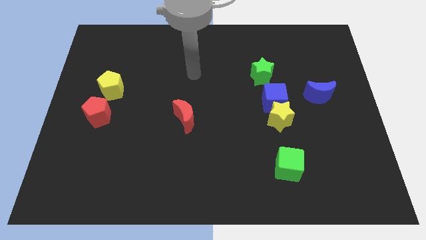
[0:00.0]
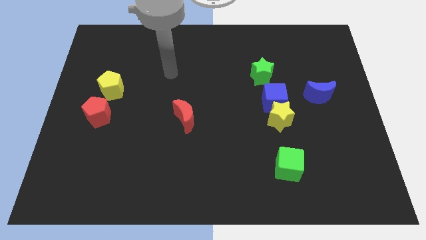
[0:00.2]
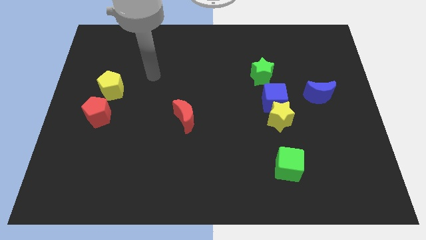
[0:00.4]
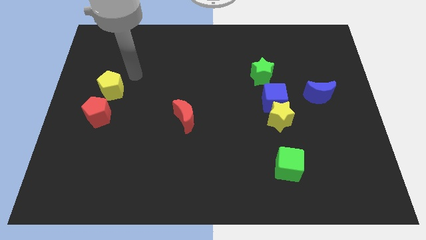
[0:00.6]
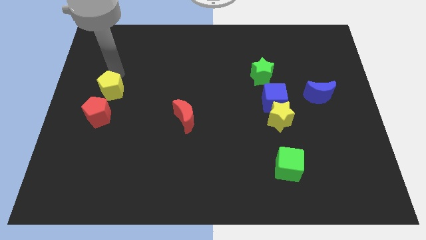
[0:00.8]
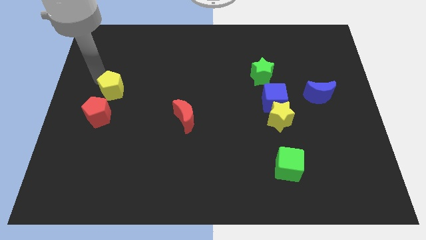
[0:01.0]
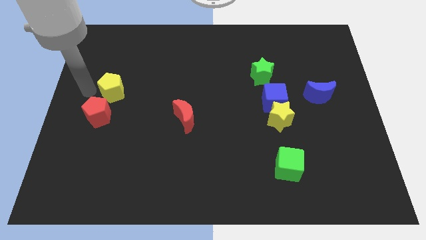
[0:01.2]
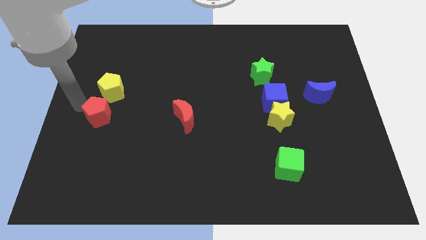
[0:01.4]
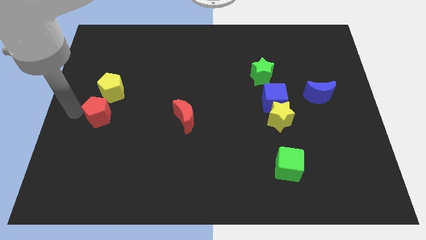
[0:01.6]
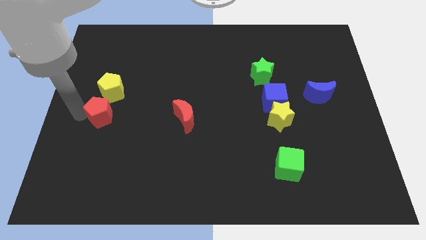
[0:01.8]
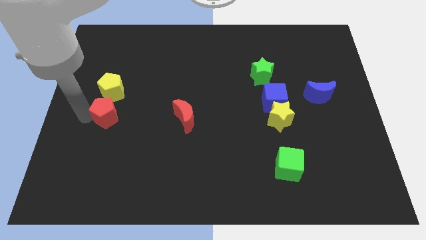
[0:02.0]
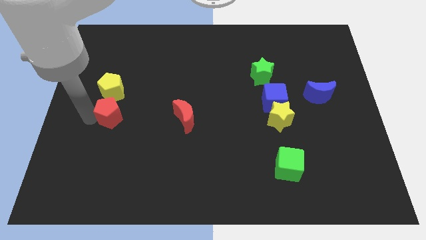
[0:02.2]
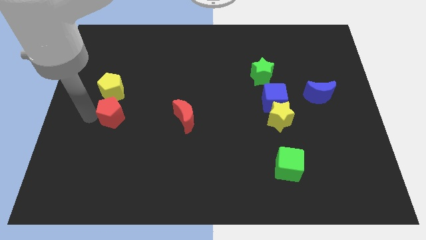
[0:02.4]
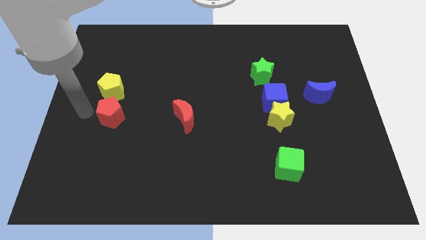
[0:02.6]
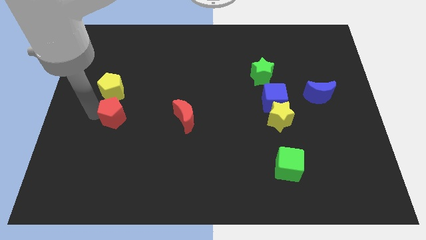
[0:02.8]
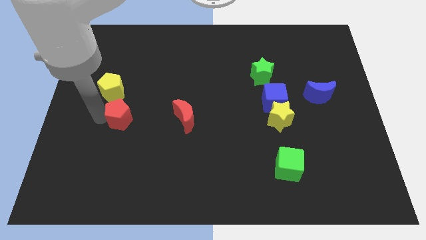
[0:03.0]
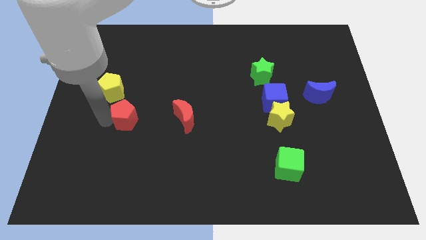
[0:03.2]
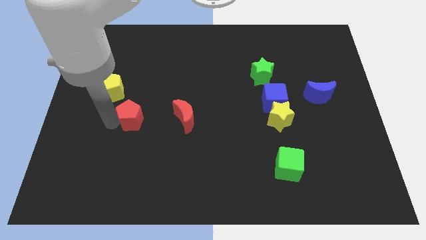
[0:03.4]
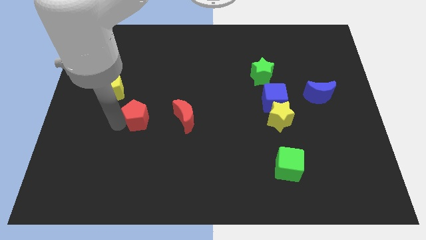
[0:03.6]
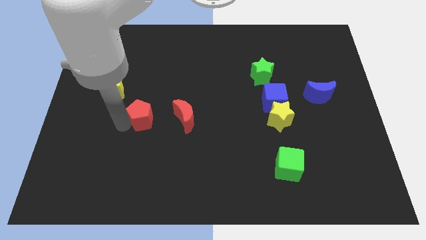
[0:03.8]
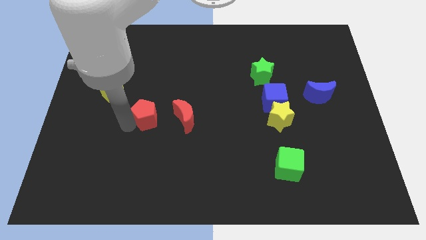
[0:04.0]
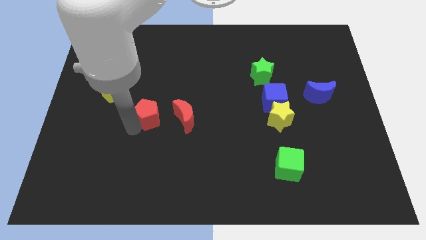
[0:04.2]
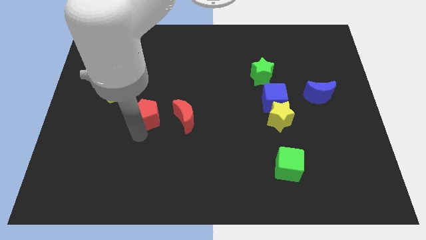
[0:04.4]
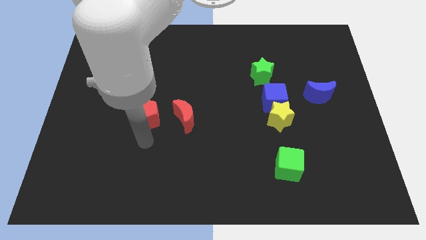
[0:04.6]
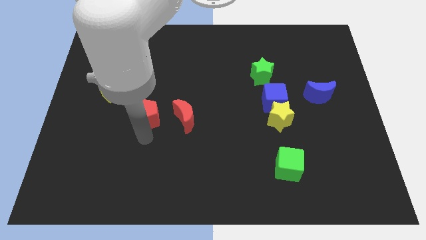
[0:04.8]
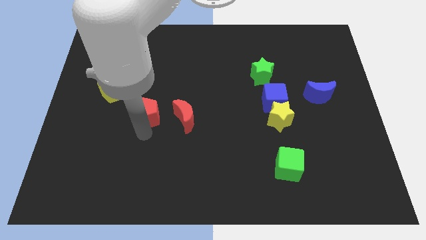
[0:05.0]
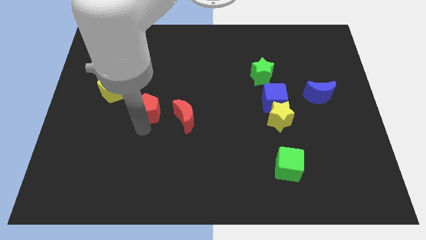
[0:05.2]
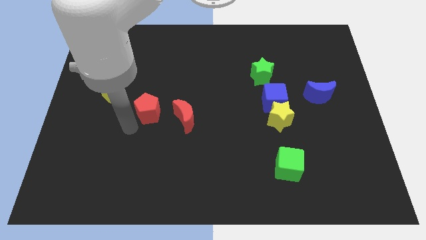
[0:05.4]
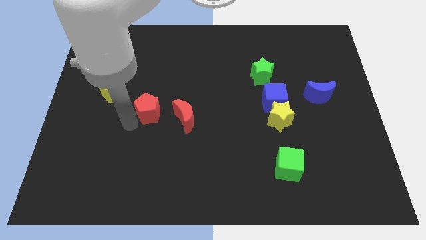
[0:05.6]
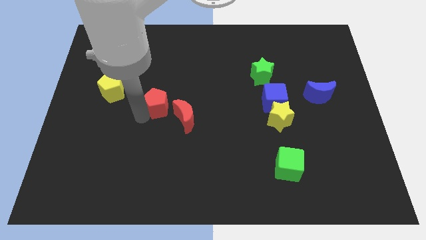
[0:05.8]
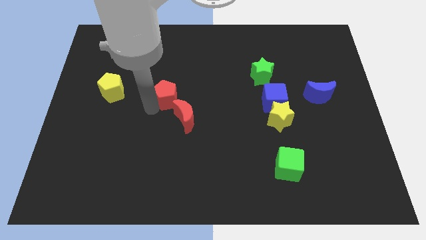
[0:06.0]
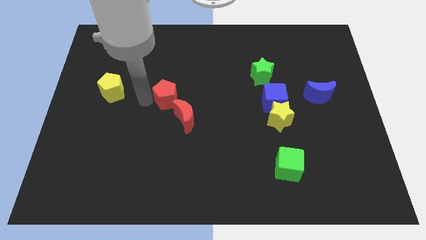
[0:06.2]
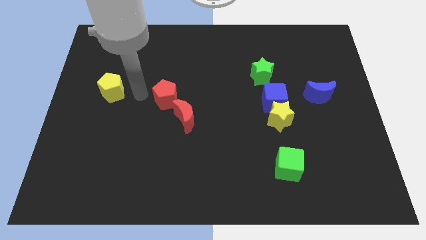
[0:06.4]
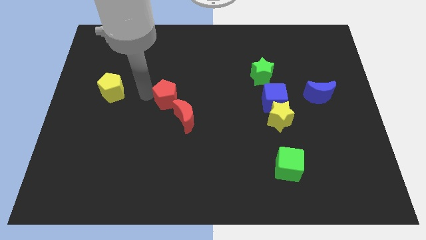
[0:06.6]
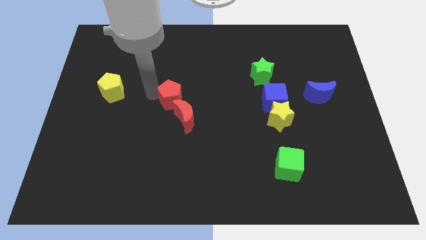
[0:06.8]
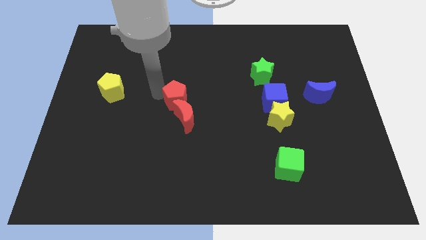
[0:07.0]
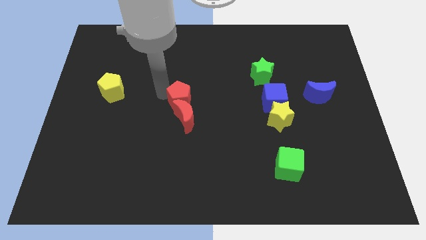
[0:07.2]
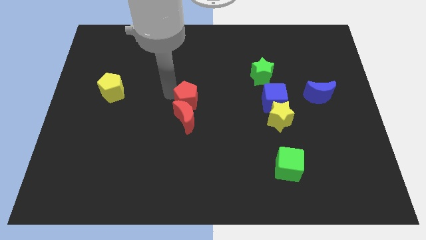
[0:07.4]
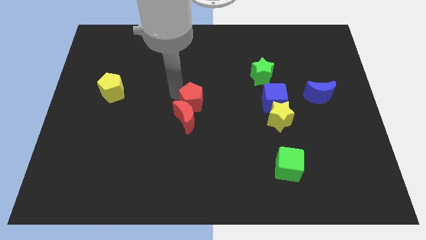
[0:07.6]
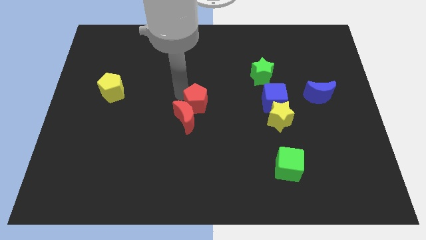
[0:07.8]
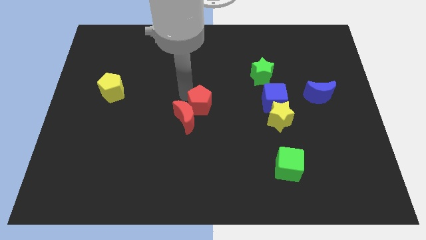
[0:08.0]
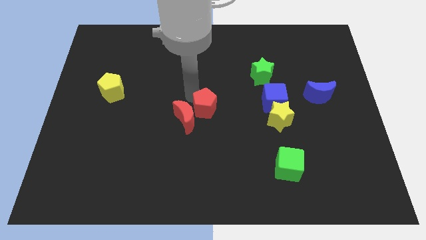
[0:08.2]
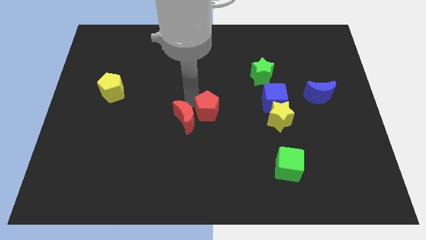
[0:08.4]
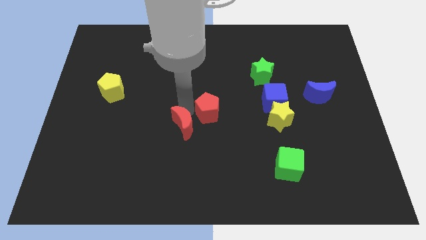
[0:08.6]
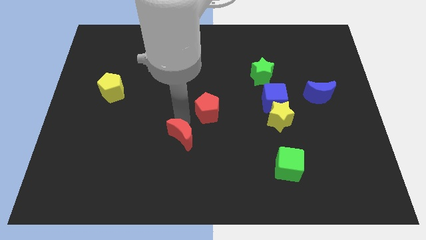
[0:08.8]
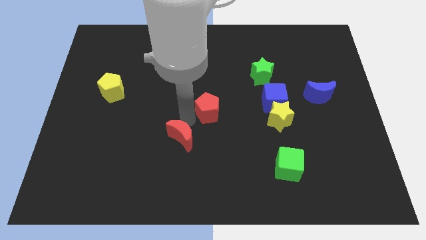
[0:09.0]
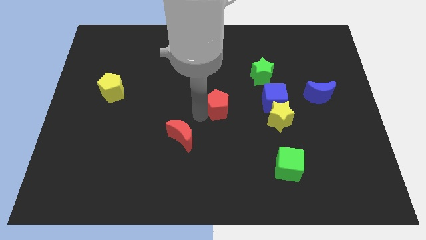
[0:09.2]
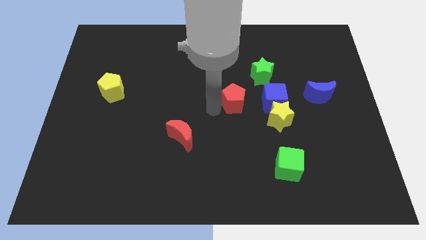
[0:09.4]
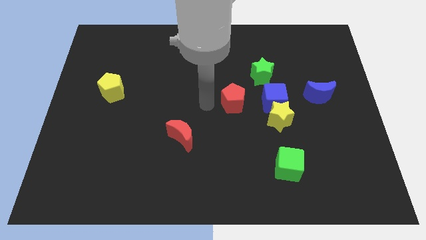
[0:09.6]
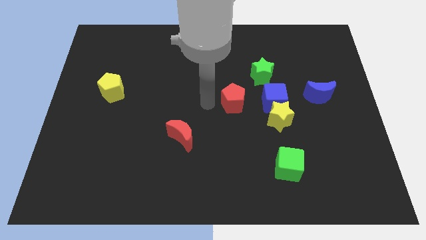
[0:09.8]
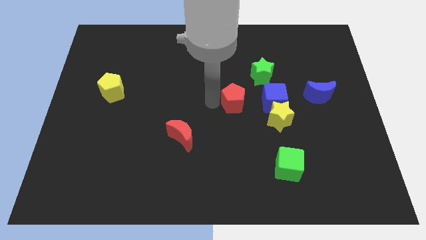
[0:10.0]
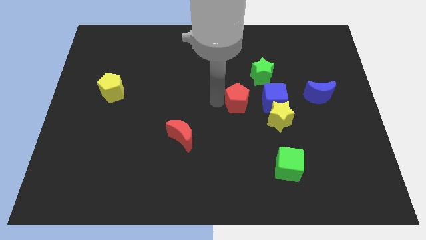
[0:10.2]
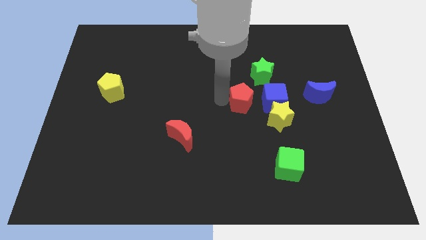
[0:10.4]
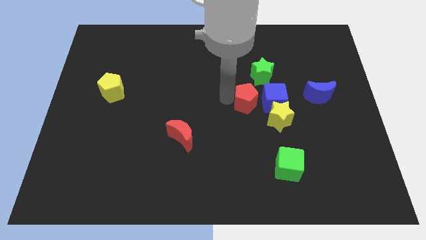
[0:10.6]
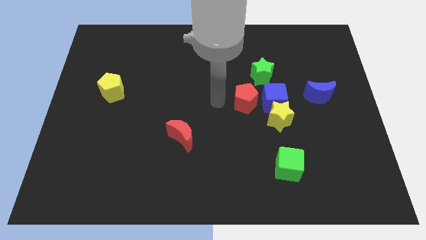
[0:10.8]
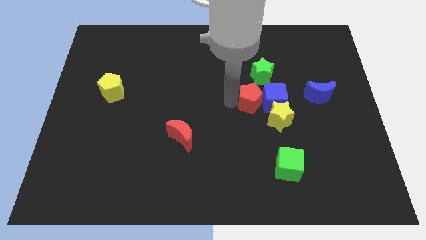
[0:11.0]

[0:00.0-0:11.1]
slide the red pentagon towards the blue cube

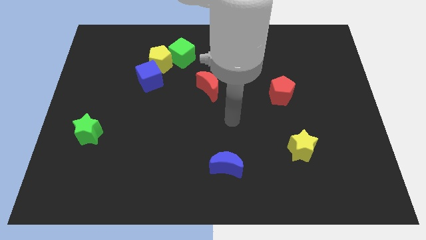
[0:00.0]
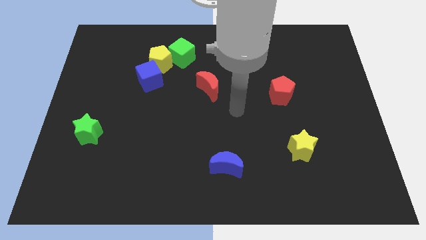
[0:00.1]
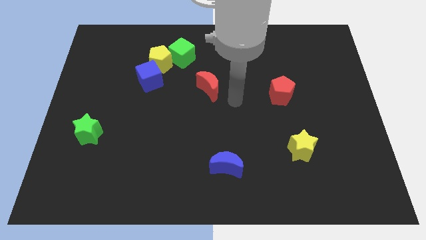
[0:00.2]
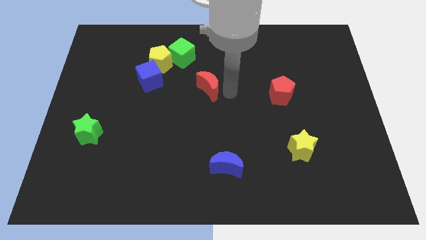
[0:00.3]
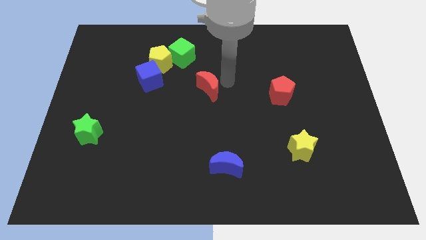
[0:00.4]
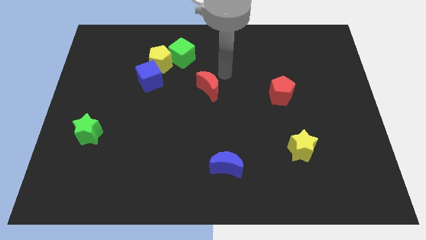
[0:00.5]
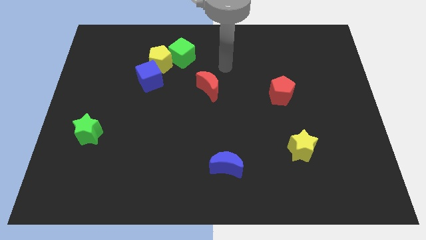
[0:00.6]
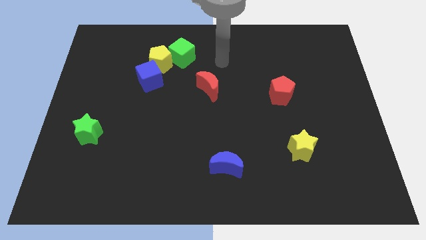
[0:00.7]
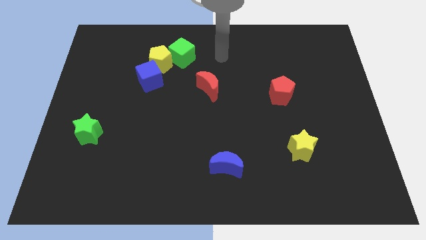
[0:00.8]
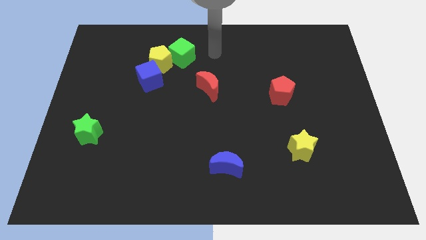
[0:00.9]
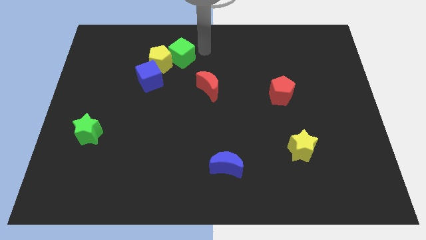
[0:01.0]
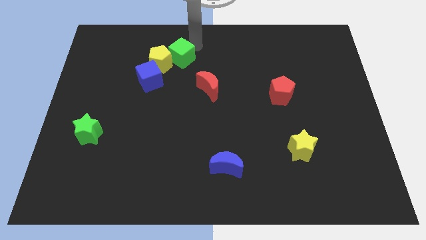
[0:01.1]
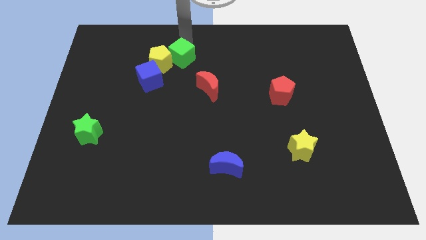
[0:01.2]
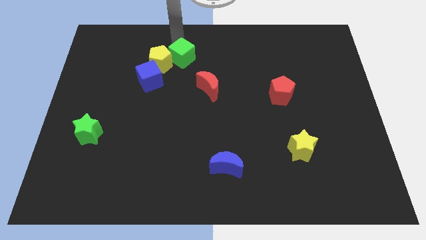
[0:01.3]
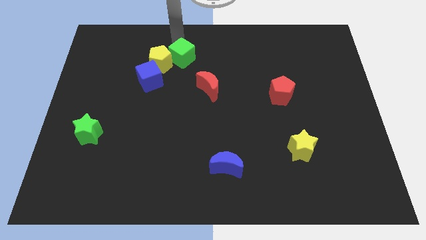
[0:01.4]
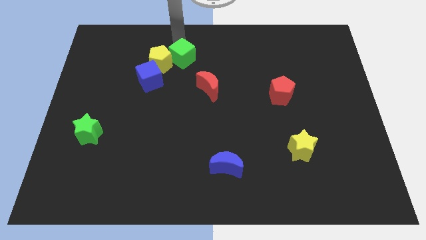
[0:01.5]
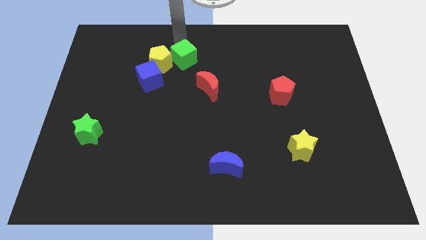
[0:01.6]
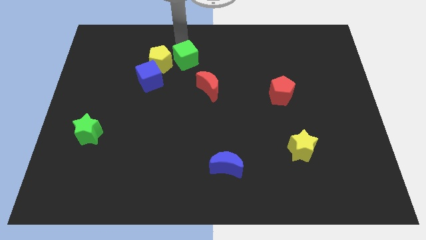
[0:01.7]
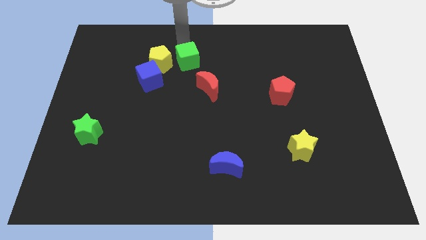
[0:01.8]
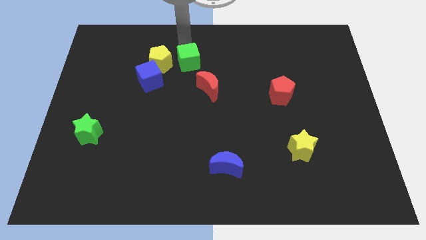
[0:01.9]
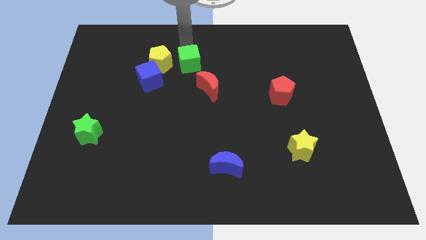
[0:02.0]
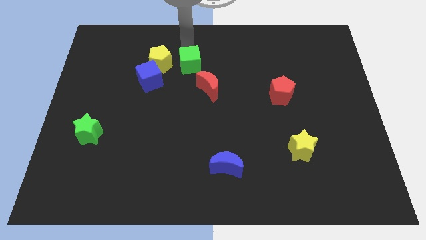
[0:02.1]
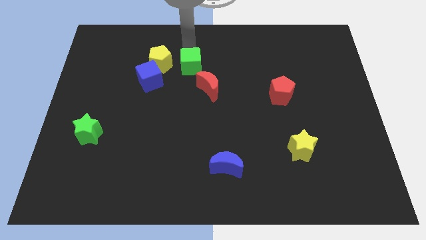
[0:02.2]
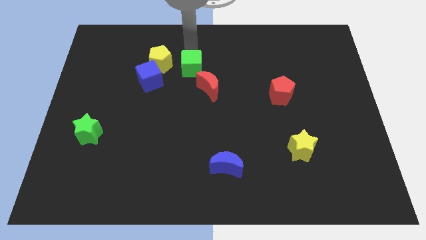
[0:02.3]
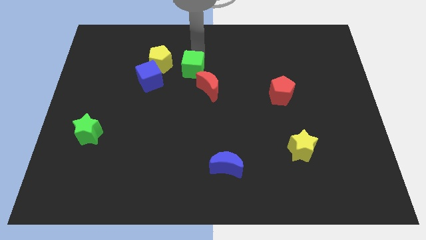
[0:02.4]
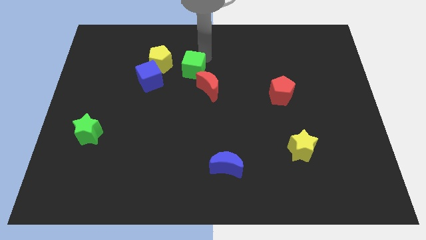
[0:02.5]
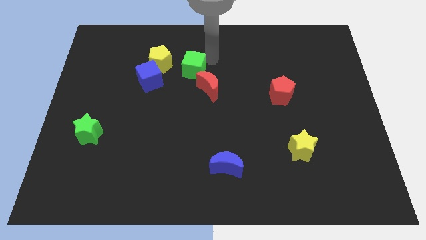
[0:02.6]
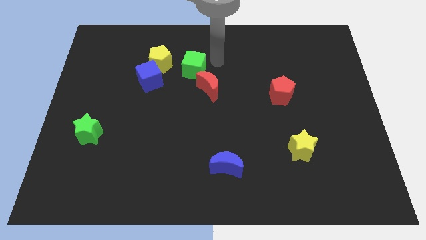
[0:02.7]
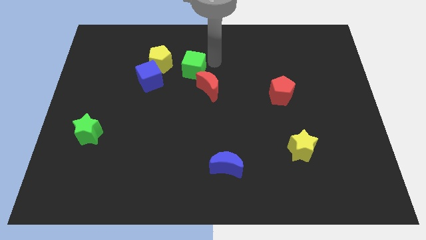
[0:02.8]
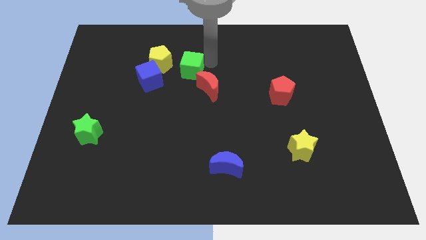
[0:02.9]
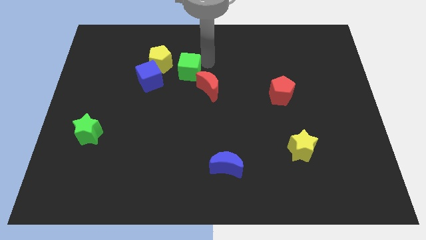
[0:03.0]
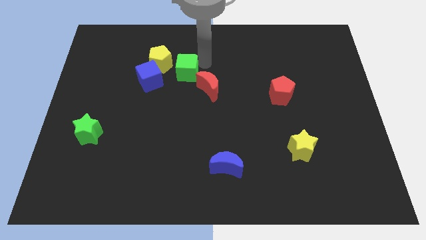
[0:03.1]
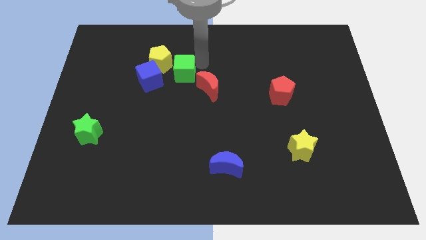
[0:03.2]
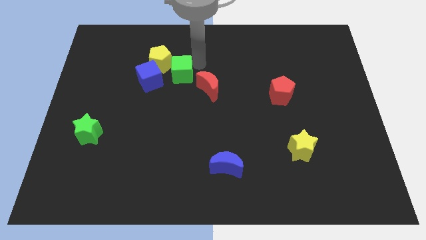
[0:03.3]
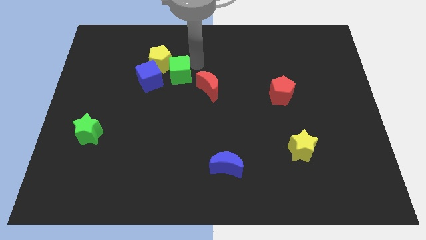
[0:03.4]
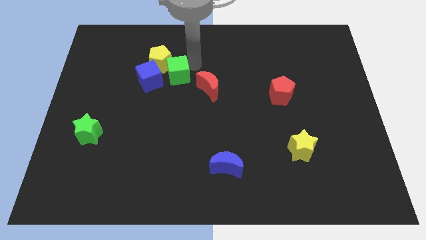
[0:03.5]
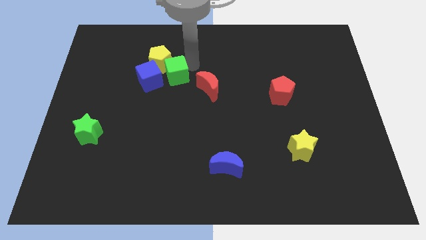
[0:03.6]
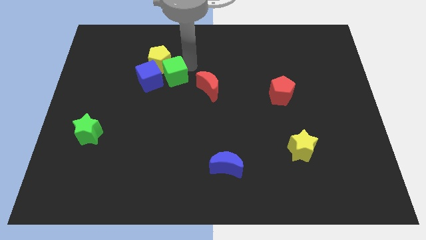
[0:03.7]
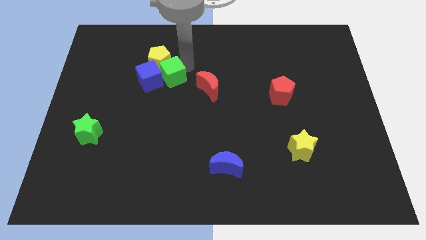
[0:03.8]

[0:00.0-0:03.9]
slide the green cube to the blue cube
